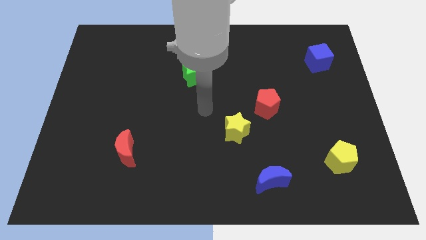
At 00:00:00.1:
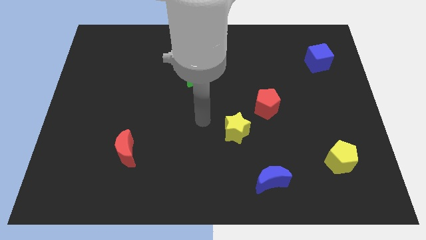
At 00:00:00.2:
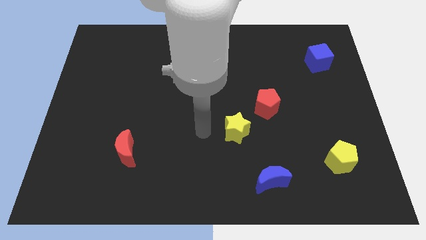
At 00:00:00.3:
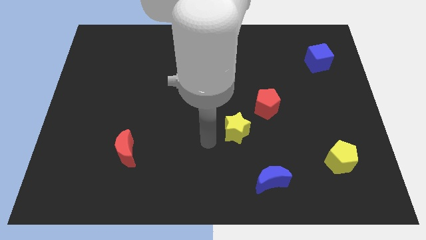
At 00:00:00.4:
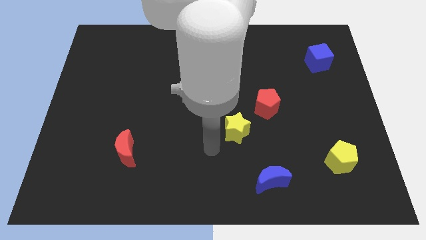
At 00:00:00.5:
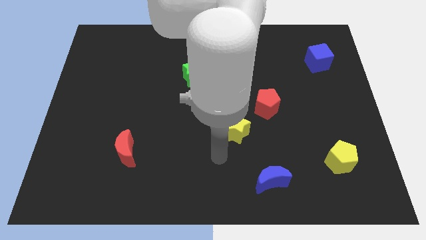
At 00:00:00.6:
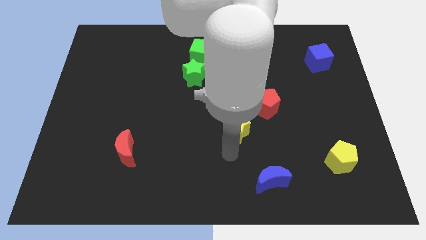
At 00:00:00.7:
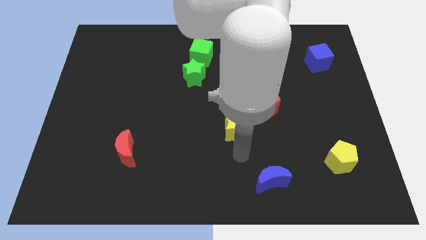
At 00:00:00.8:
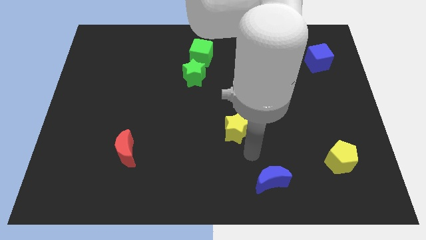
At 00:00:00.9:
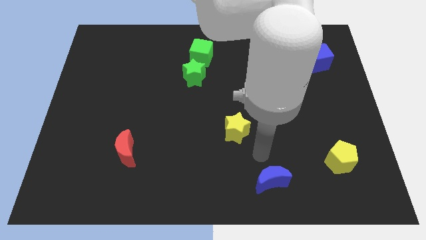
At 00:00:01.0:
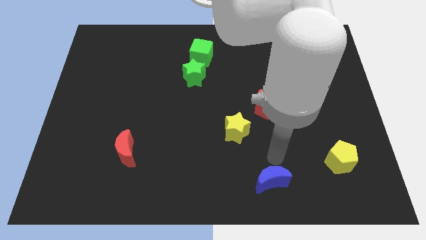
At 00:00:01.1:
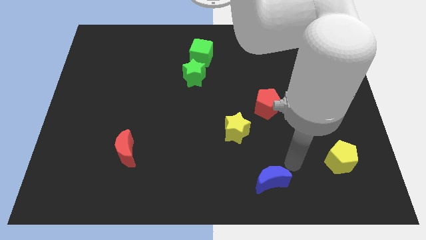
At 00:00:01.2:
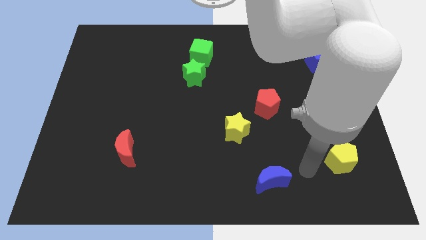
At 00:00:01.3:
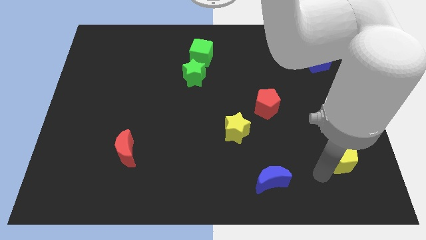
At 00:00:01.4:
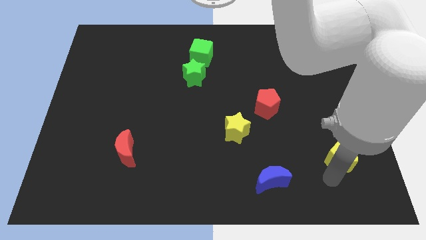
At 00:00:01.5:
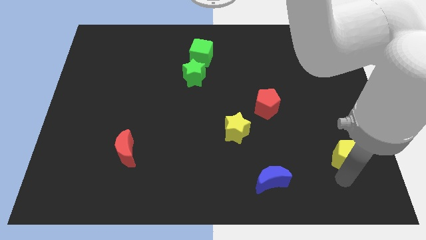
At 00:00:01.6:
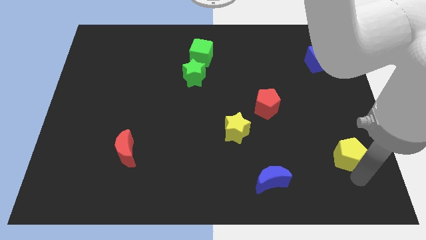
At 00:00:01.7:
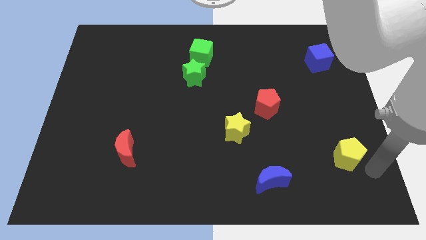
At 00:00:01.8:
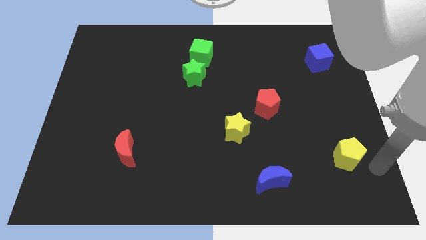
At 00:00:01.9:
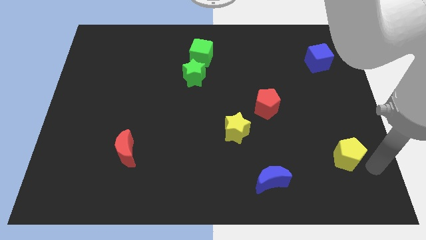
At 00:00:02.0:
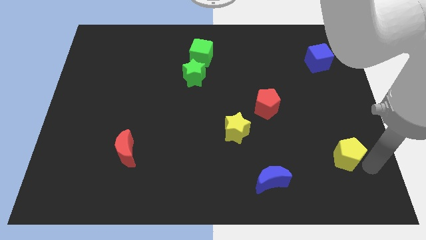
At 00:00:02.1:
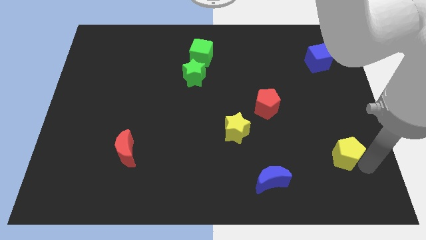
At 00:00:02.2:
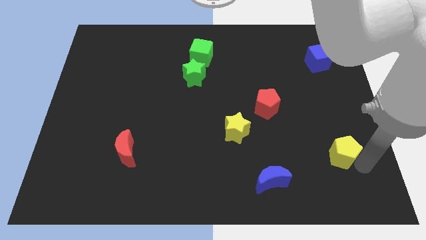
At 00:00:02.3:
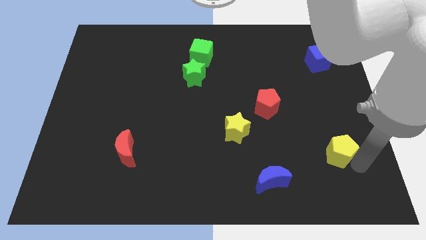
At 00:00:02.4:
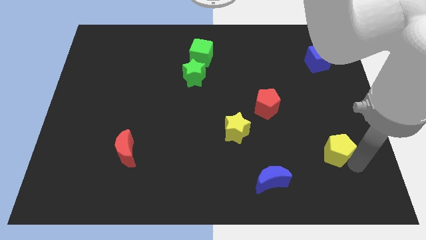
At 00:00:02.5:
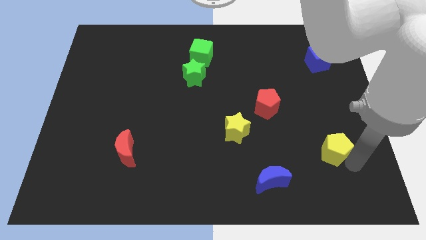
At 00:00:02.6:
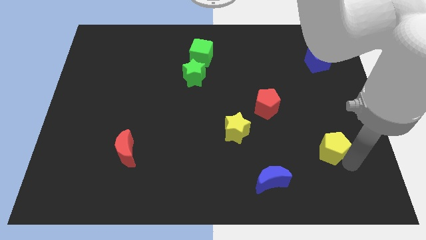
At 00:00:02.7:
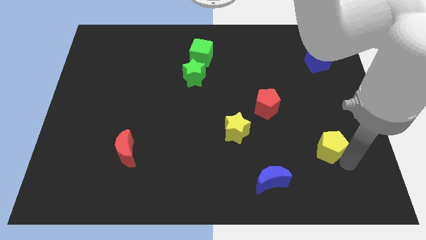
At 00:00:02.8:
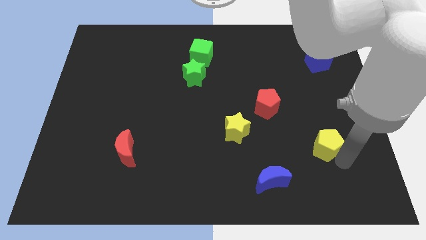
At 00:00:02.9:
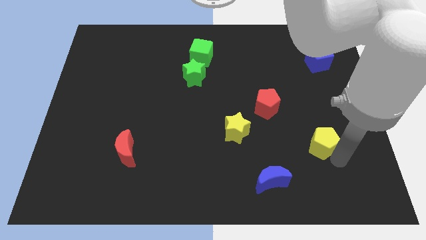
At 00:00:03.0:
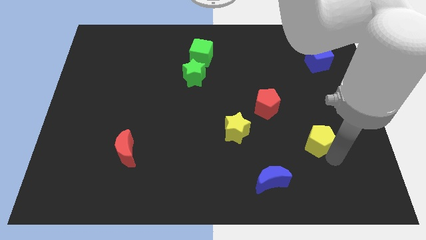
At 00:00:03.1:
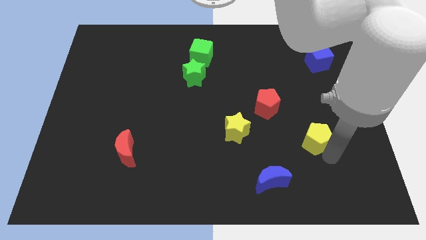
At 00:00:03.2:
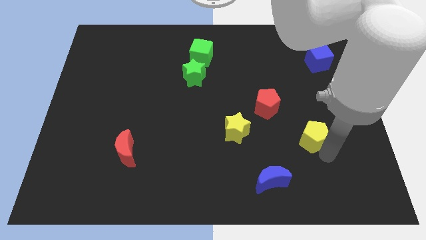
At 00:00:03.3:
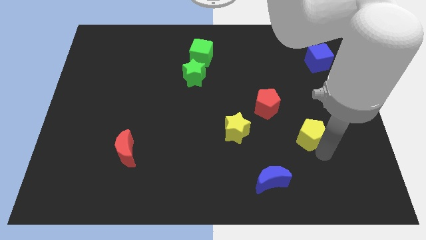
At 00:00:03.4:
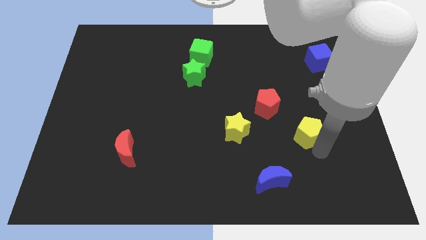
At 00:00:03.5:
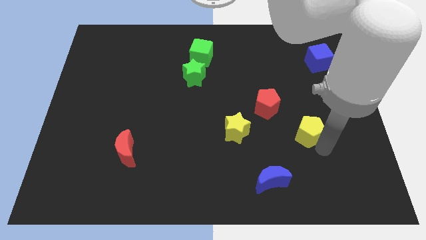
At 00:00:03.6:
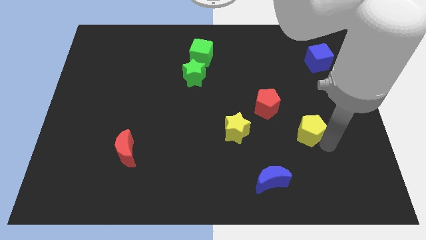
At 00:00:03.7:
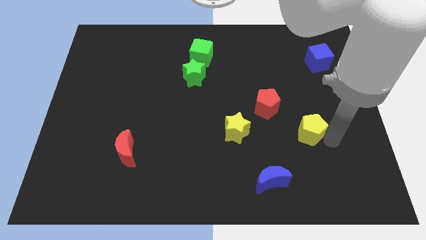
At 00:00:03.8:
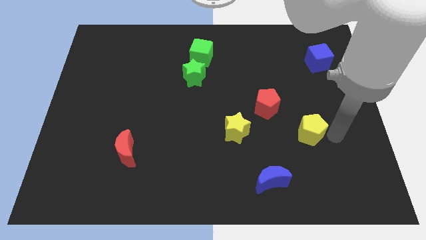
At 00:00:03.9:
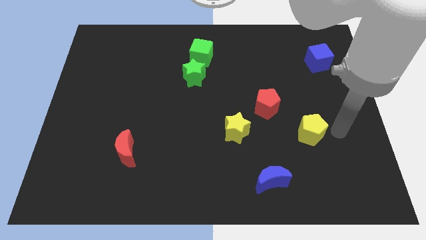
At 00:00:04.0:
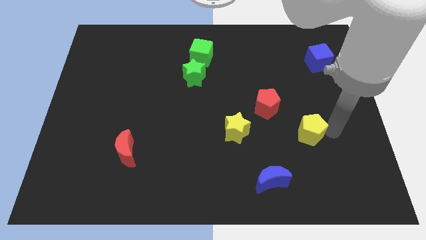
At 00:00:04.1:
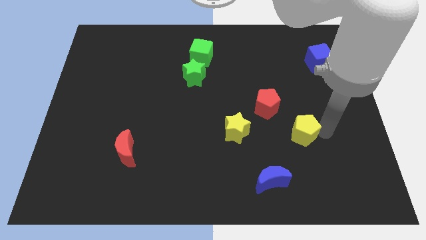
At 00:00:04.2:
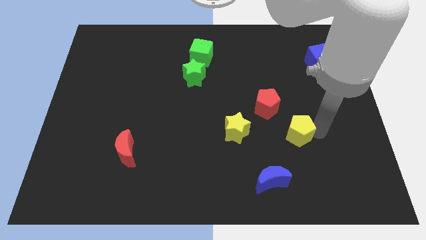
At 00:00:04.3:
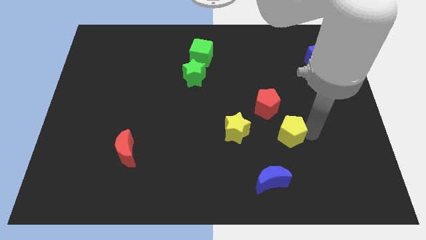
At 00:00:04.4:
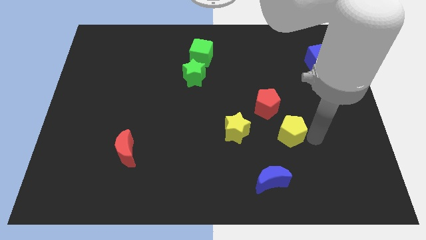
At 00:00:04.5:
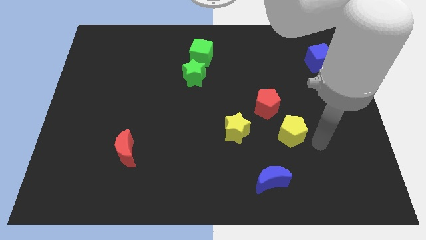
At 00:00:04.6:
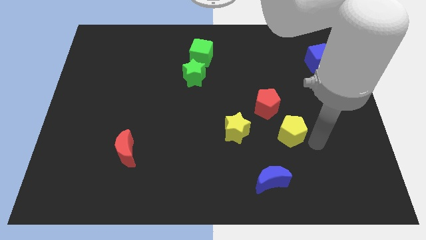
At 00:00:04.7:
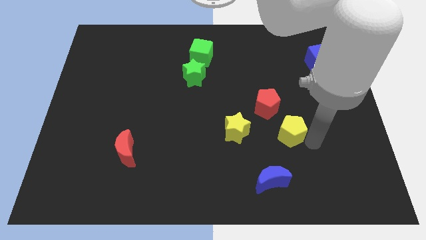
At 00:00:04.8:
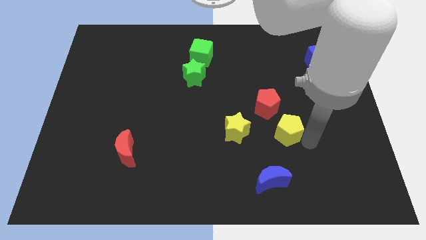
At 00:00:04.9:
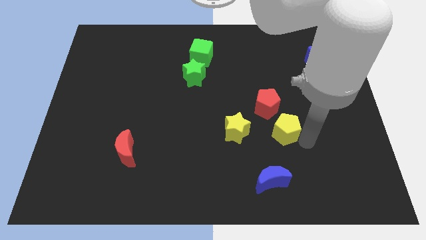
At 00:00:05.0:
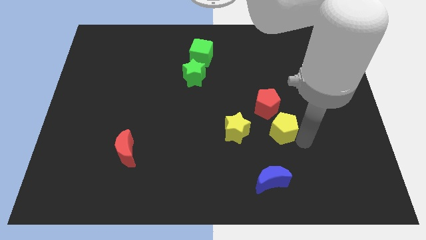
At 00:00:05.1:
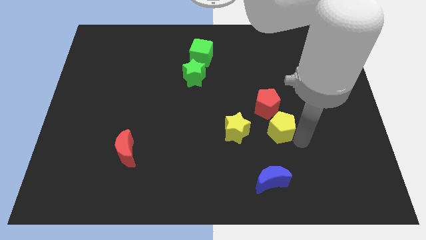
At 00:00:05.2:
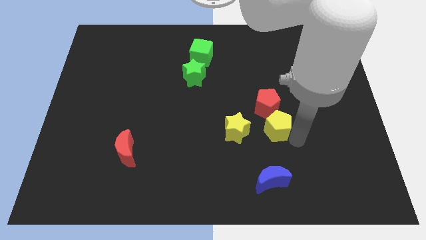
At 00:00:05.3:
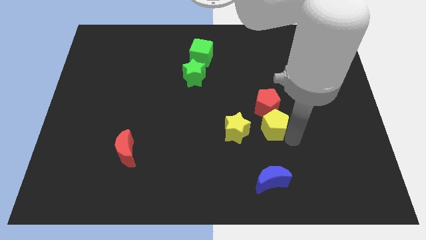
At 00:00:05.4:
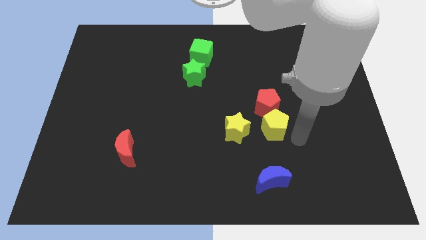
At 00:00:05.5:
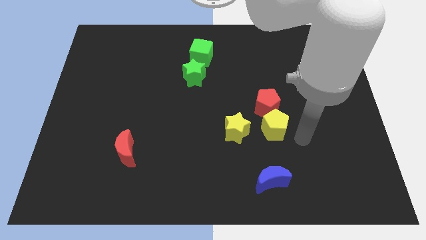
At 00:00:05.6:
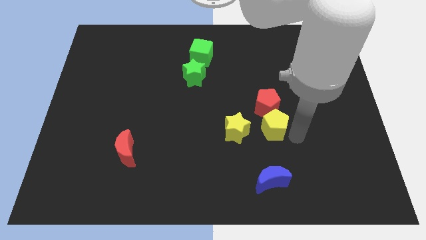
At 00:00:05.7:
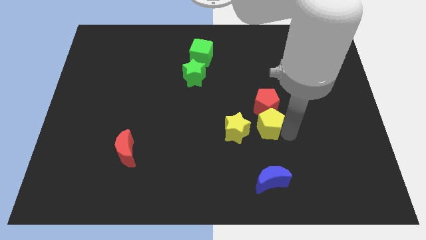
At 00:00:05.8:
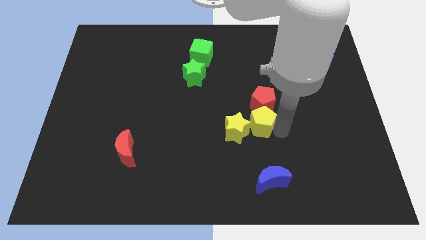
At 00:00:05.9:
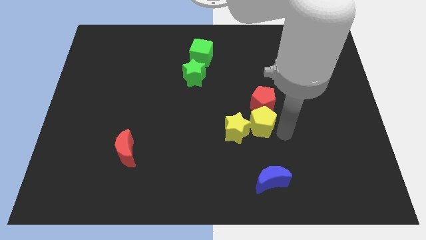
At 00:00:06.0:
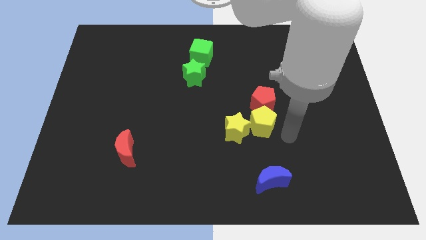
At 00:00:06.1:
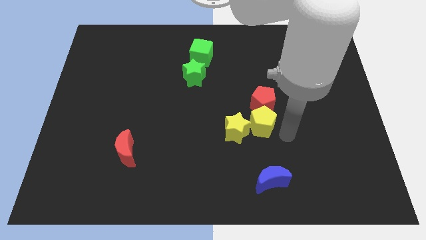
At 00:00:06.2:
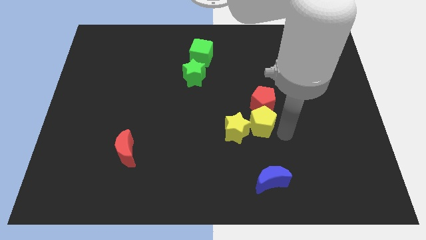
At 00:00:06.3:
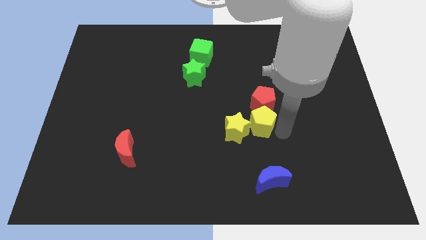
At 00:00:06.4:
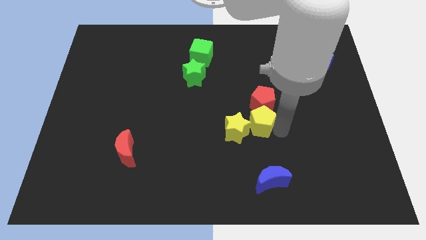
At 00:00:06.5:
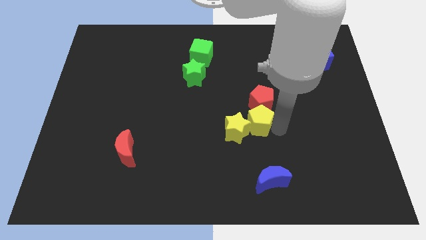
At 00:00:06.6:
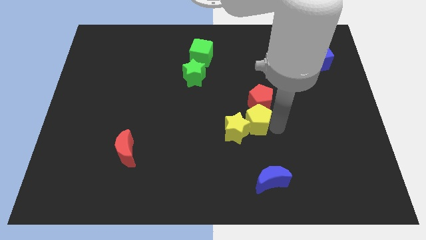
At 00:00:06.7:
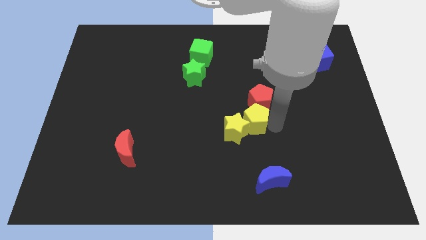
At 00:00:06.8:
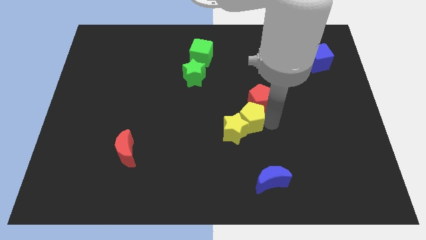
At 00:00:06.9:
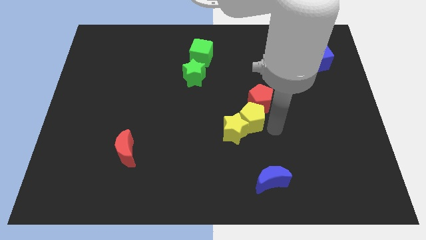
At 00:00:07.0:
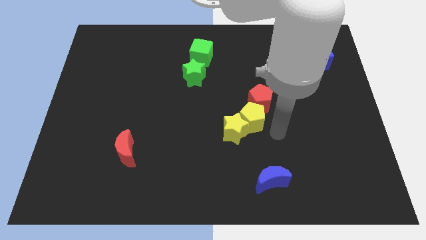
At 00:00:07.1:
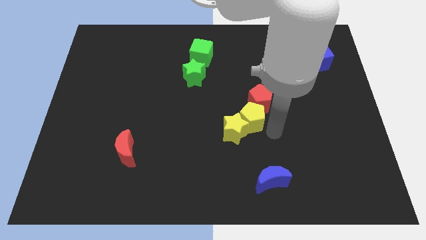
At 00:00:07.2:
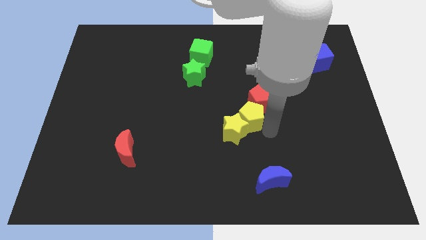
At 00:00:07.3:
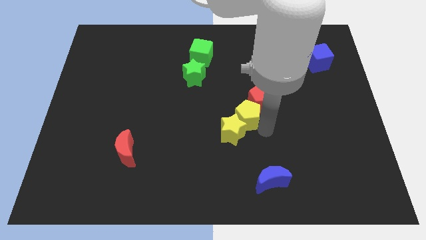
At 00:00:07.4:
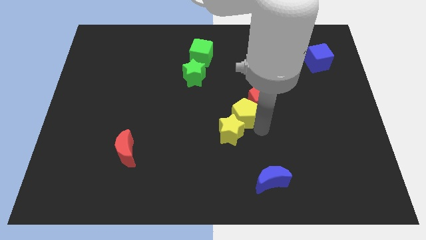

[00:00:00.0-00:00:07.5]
move the yellow pentagon to the left side of the red pentagon

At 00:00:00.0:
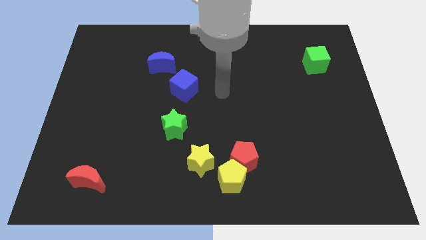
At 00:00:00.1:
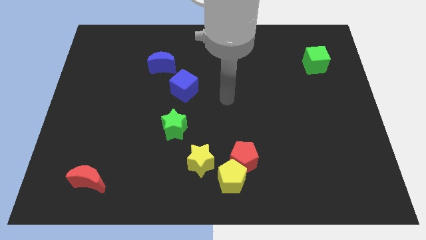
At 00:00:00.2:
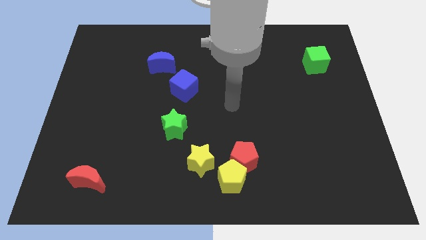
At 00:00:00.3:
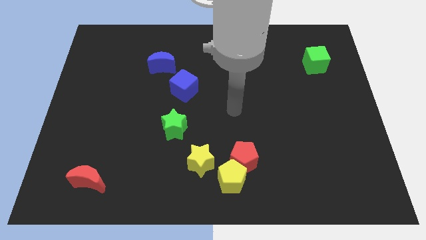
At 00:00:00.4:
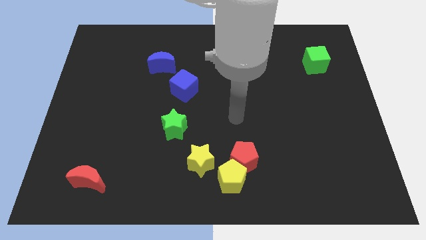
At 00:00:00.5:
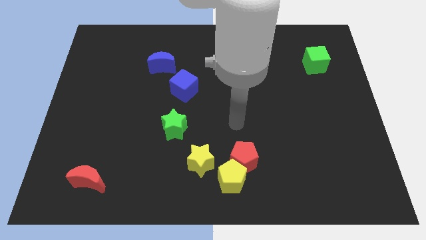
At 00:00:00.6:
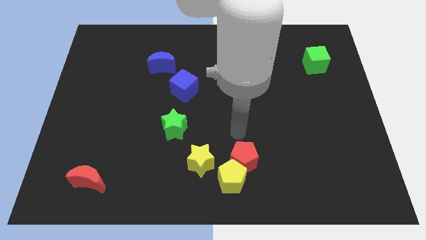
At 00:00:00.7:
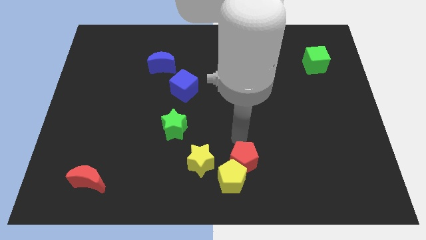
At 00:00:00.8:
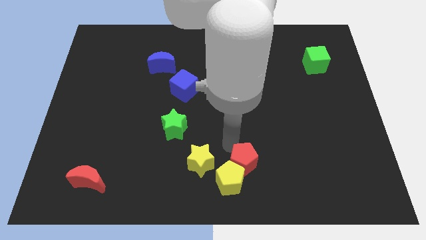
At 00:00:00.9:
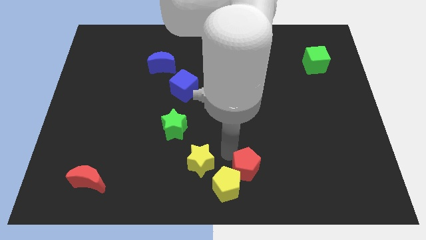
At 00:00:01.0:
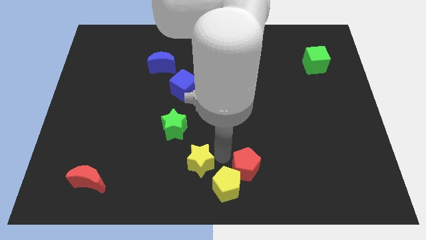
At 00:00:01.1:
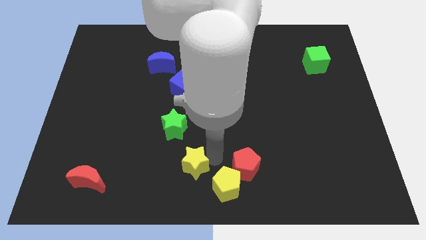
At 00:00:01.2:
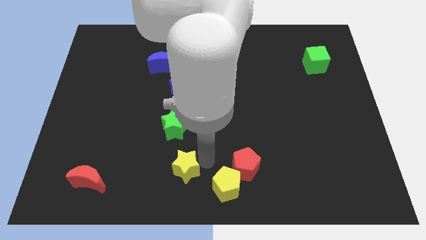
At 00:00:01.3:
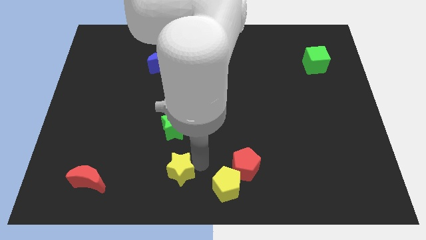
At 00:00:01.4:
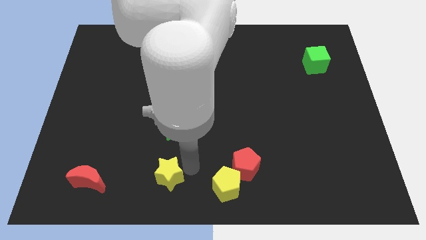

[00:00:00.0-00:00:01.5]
push the yellow star to the right of the red moon
